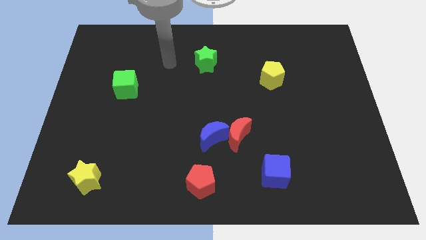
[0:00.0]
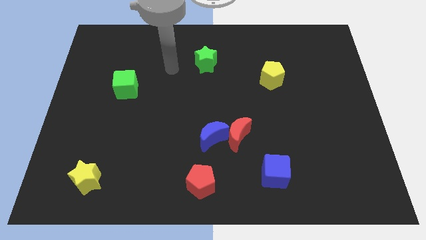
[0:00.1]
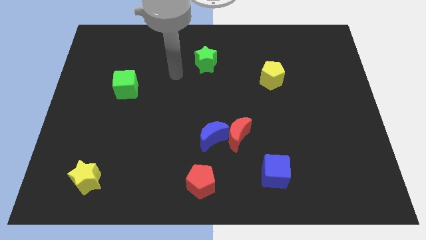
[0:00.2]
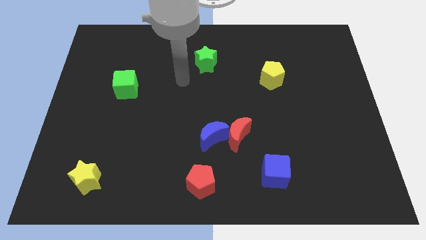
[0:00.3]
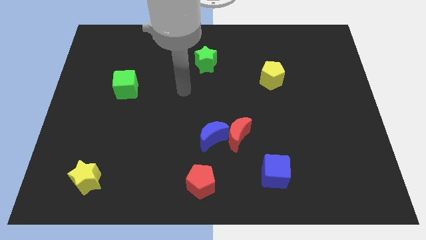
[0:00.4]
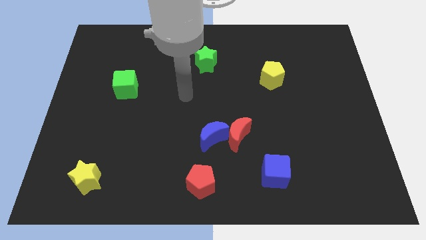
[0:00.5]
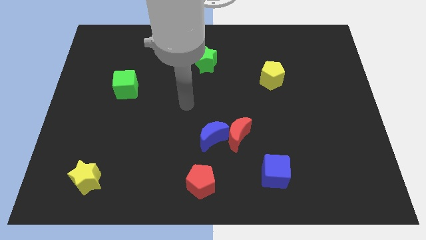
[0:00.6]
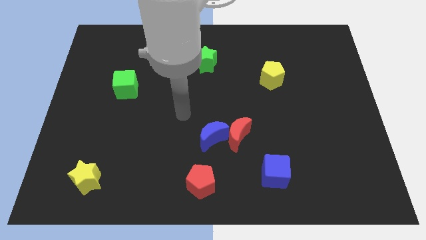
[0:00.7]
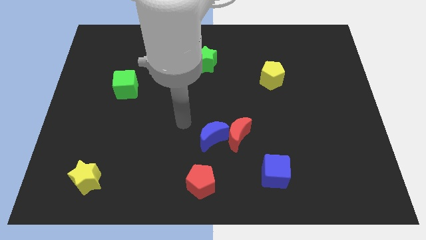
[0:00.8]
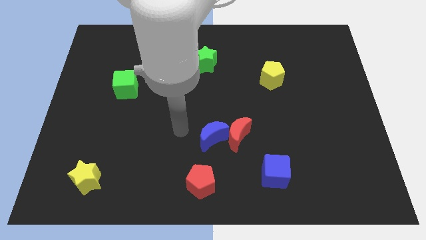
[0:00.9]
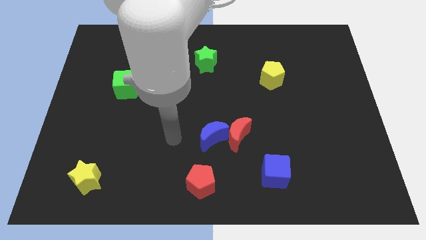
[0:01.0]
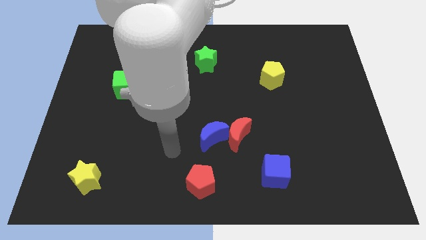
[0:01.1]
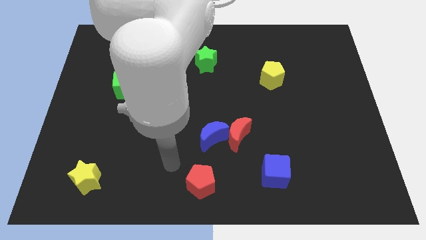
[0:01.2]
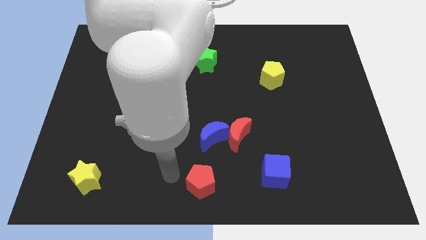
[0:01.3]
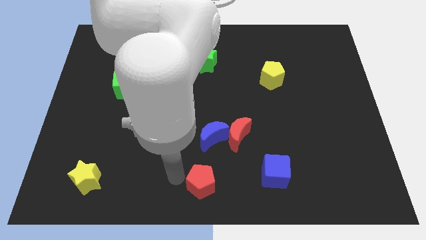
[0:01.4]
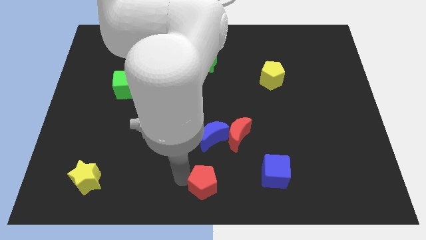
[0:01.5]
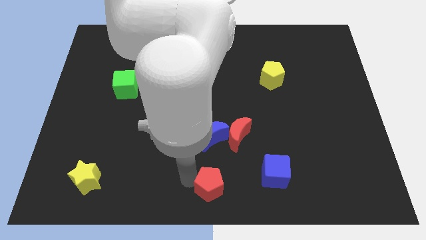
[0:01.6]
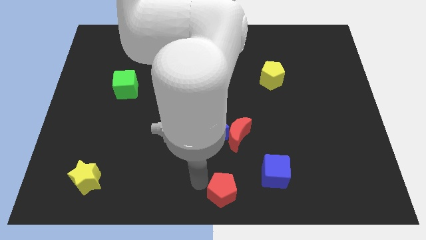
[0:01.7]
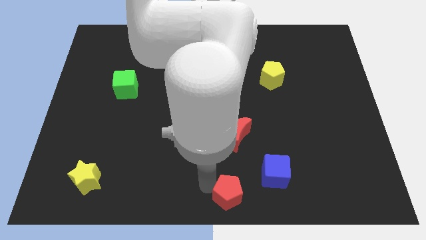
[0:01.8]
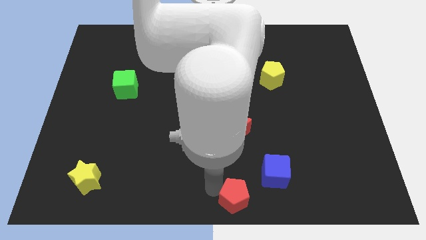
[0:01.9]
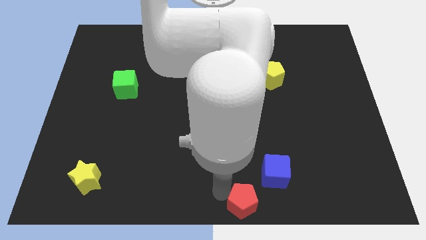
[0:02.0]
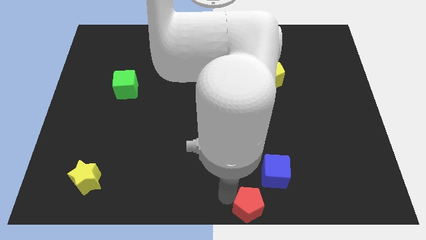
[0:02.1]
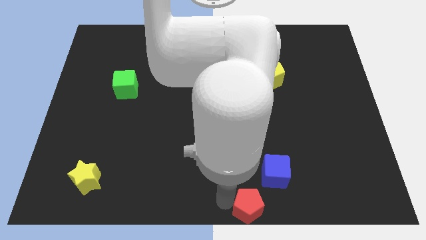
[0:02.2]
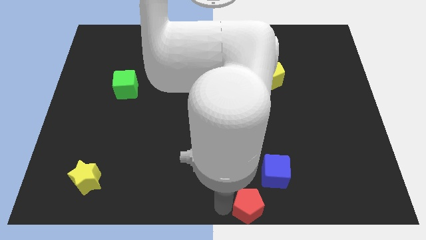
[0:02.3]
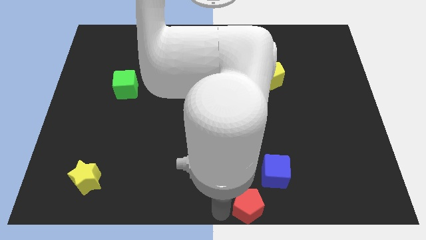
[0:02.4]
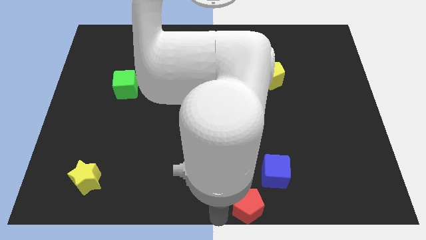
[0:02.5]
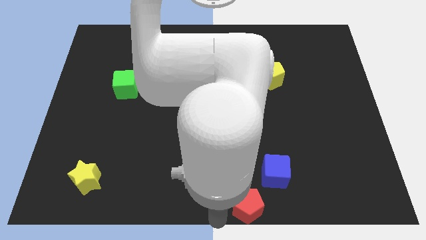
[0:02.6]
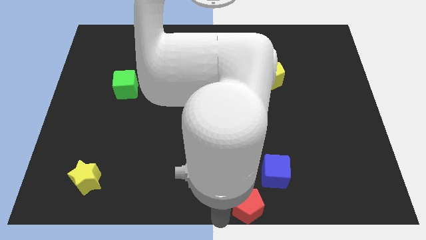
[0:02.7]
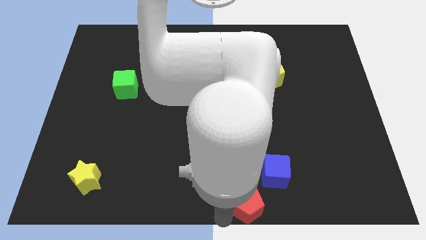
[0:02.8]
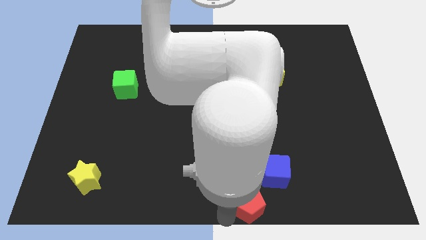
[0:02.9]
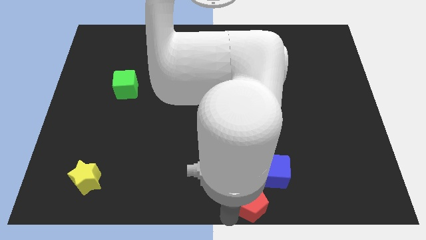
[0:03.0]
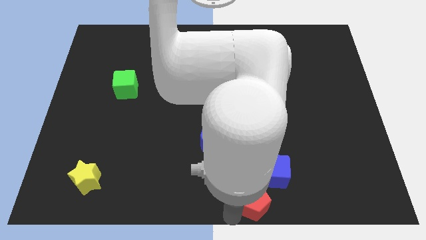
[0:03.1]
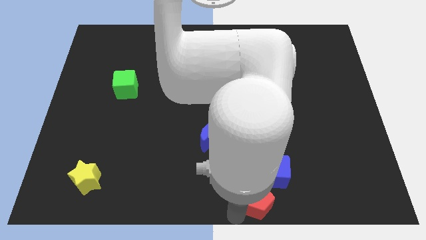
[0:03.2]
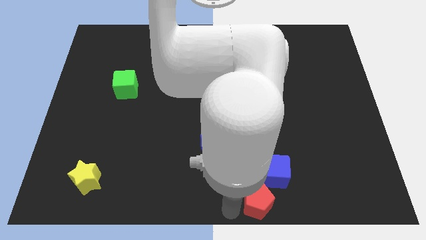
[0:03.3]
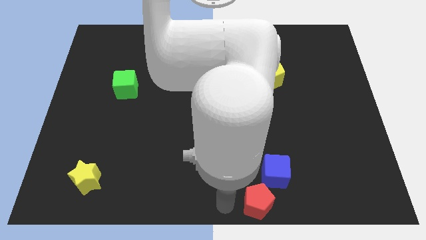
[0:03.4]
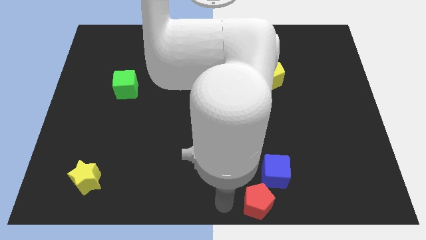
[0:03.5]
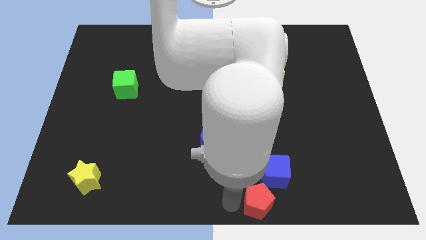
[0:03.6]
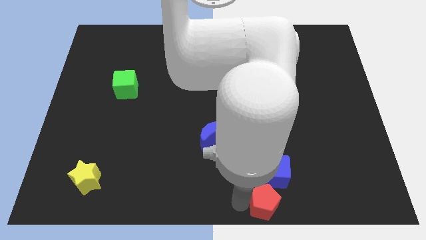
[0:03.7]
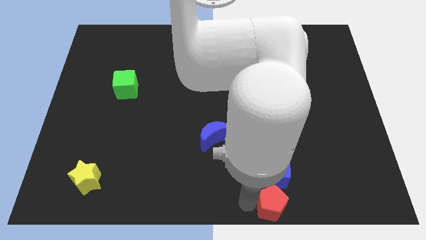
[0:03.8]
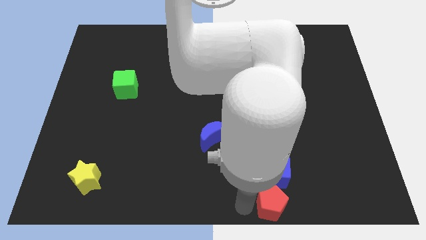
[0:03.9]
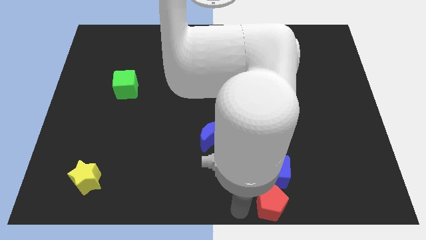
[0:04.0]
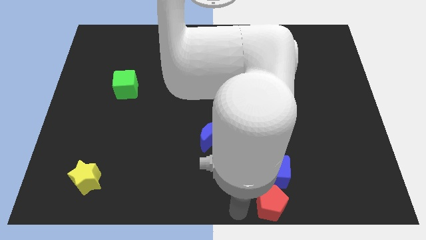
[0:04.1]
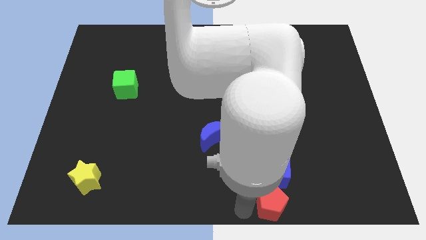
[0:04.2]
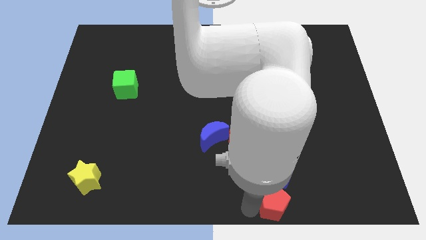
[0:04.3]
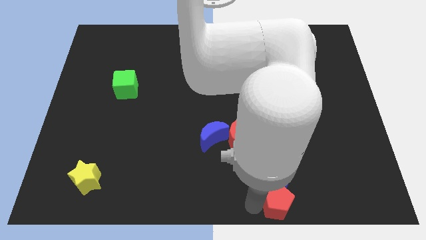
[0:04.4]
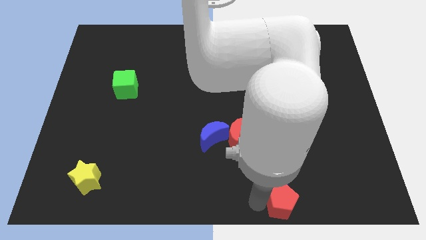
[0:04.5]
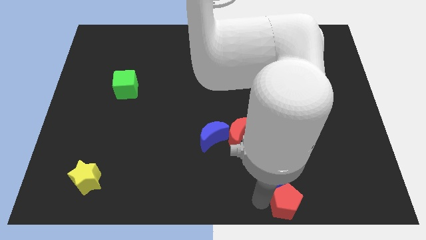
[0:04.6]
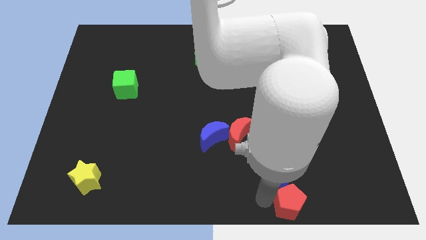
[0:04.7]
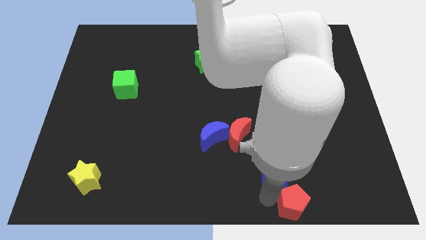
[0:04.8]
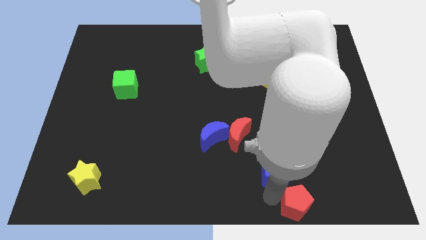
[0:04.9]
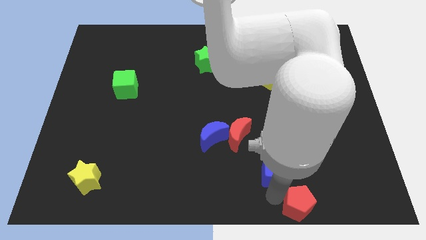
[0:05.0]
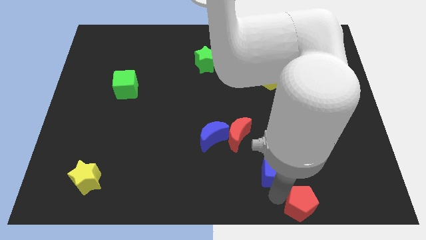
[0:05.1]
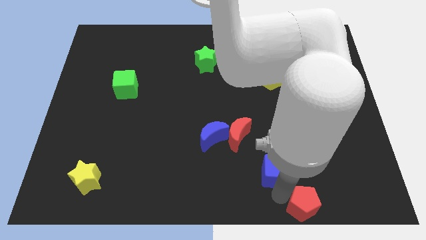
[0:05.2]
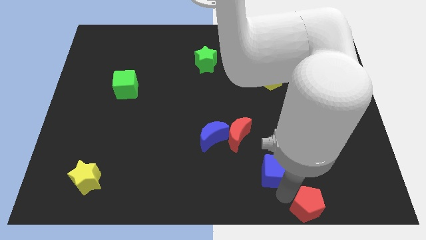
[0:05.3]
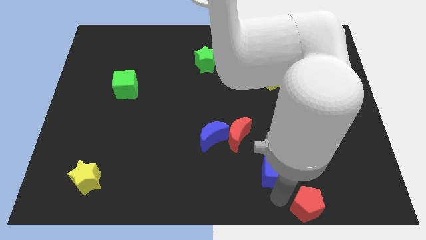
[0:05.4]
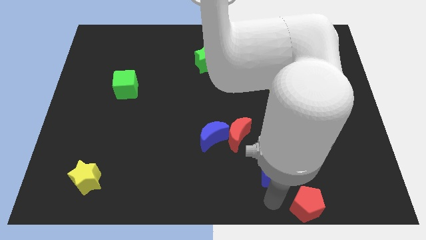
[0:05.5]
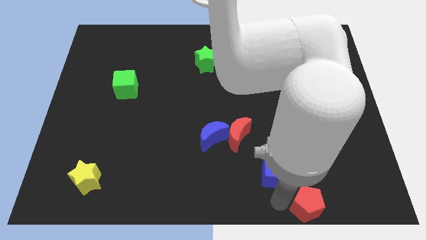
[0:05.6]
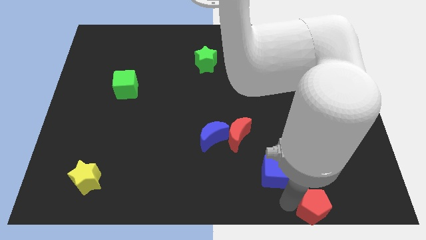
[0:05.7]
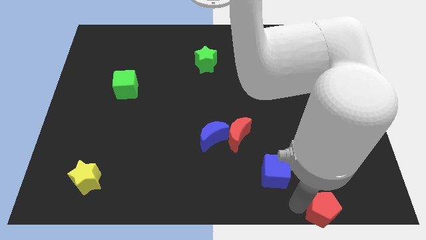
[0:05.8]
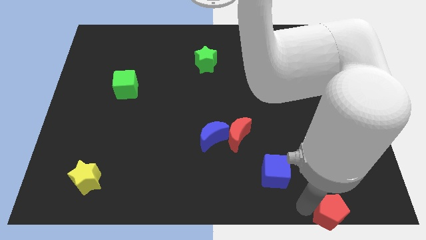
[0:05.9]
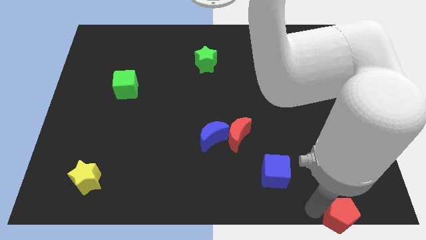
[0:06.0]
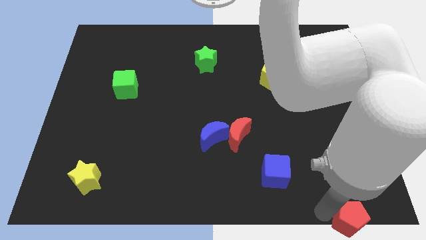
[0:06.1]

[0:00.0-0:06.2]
slide the red pentagon to the bottom right corner

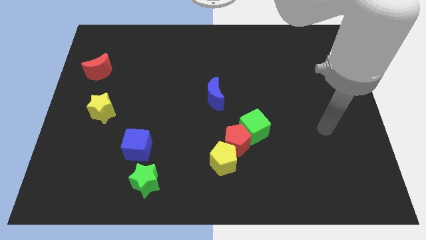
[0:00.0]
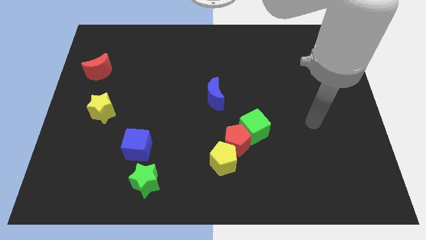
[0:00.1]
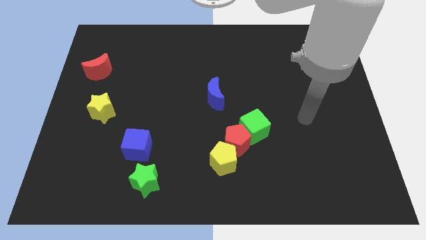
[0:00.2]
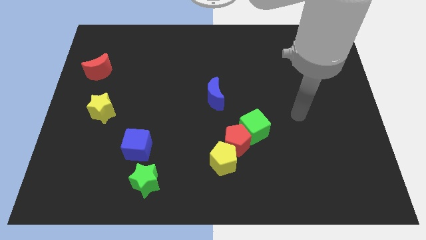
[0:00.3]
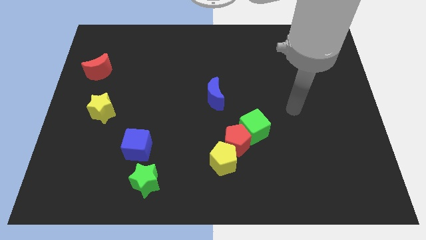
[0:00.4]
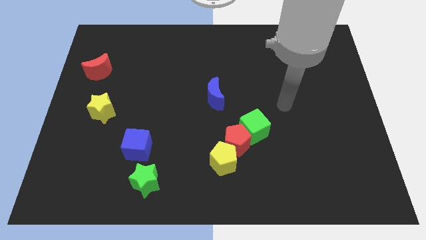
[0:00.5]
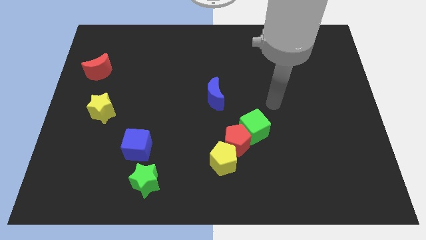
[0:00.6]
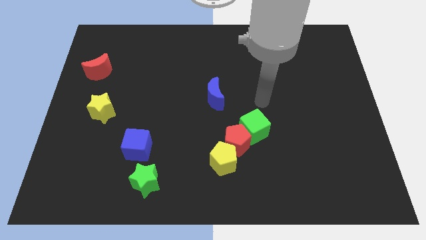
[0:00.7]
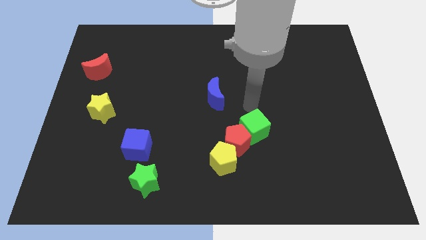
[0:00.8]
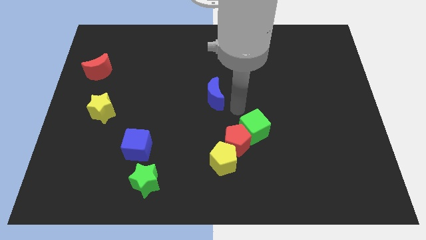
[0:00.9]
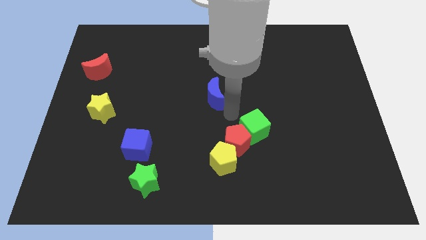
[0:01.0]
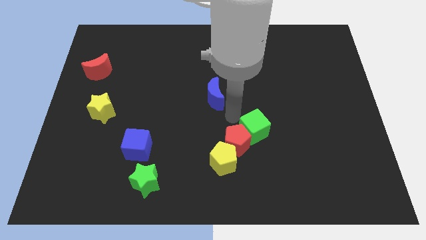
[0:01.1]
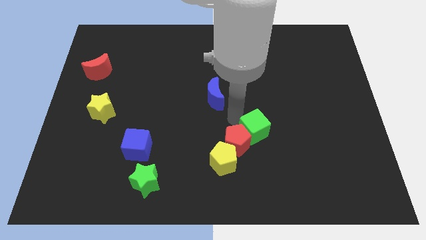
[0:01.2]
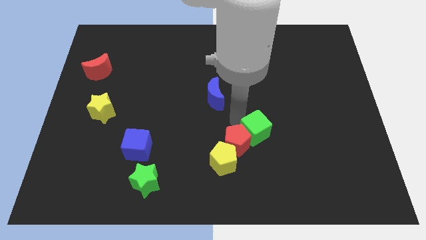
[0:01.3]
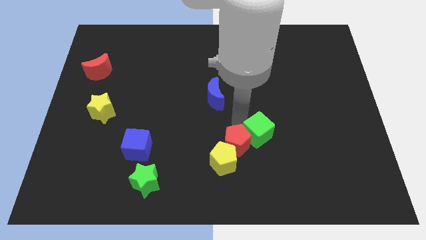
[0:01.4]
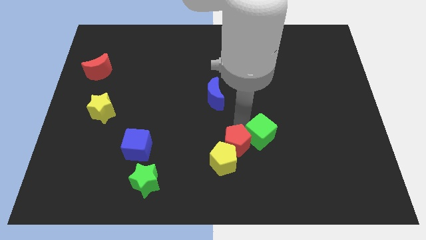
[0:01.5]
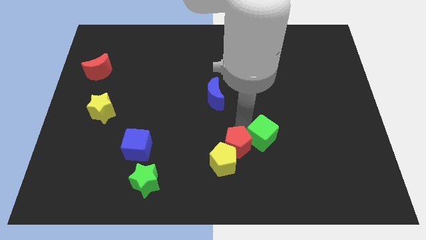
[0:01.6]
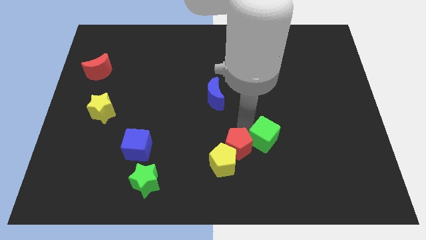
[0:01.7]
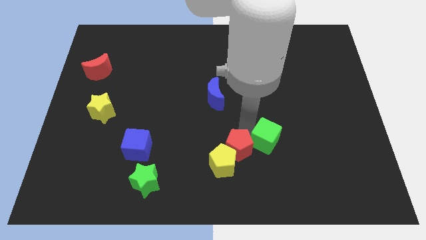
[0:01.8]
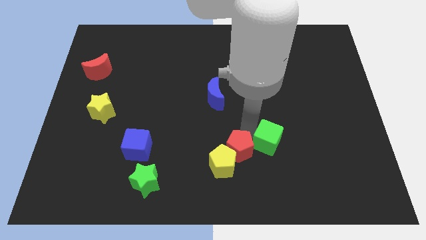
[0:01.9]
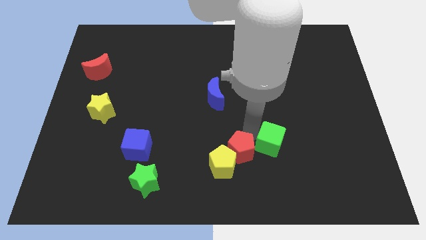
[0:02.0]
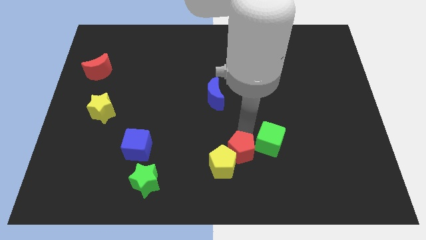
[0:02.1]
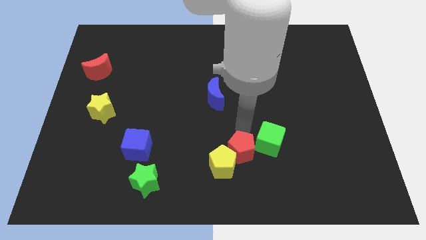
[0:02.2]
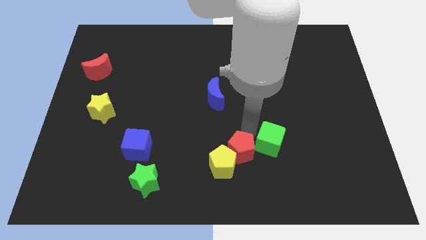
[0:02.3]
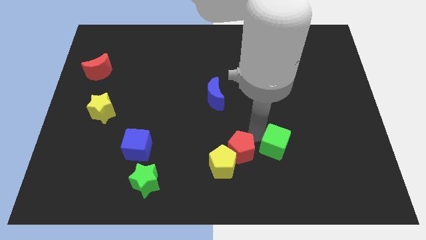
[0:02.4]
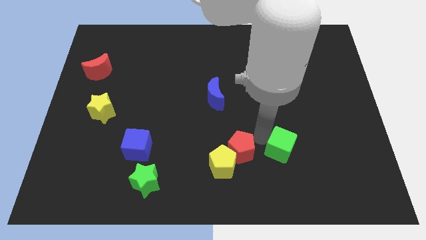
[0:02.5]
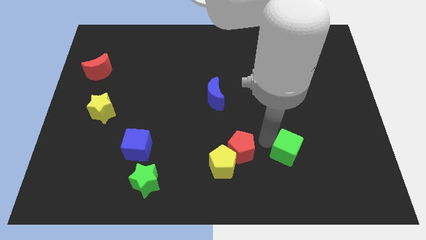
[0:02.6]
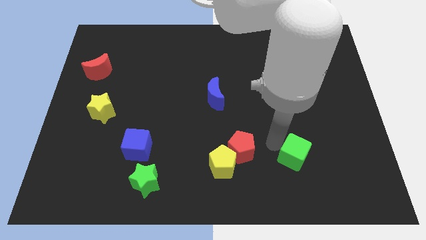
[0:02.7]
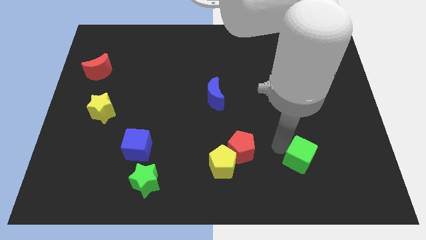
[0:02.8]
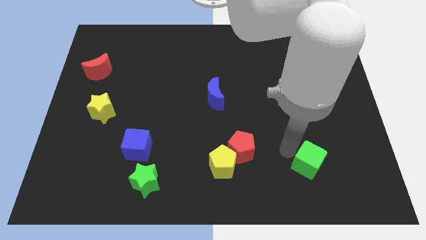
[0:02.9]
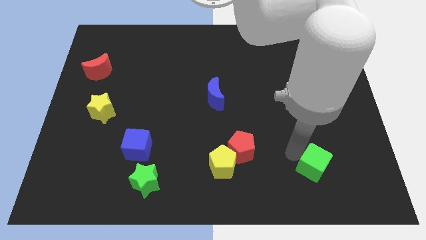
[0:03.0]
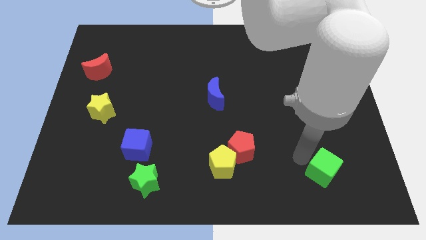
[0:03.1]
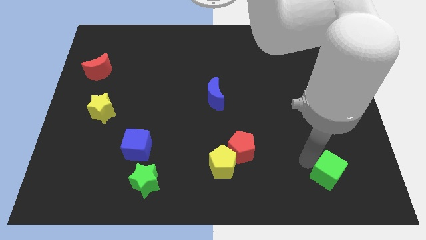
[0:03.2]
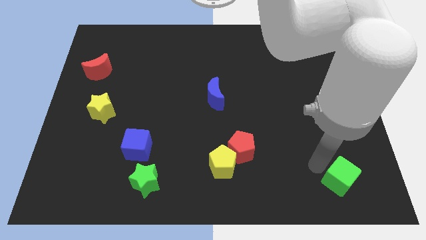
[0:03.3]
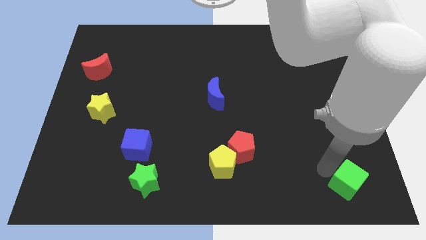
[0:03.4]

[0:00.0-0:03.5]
slide the green cube to the bottom right
